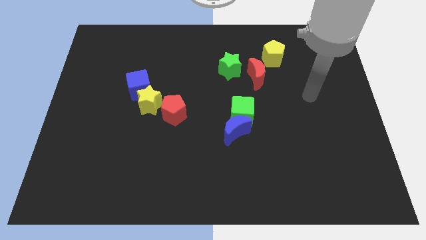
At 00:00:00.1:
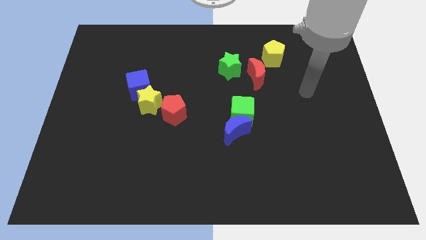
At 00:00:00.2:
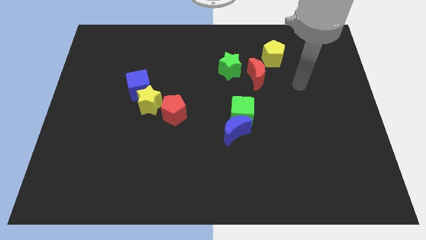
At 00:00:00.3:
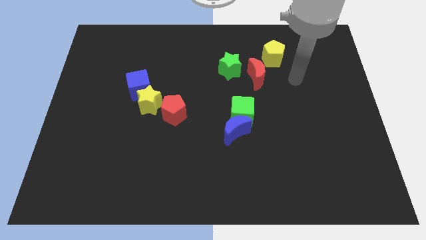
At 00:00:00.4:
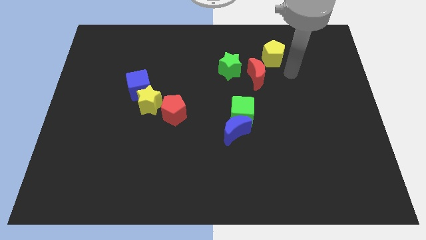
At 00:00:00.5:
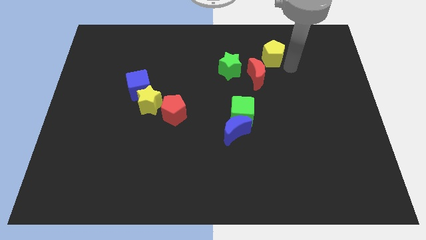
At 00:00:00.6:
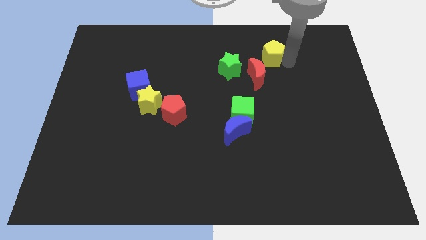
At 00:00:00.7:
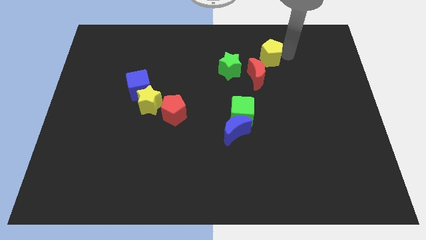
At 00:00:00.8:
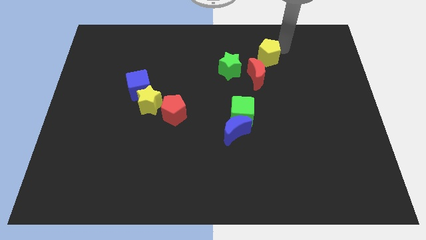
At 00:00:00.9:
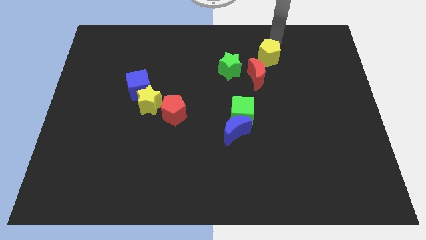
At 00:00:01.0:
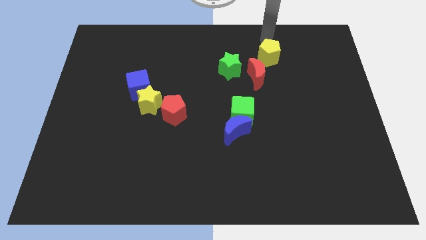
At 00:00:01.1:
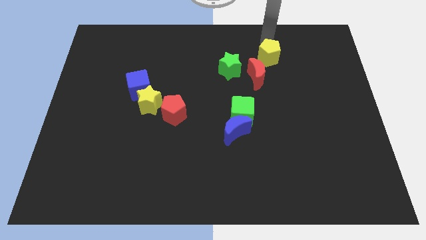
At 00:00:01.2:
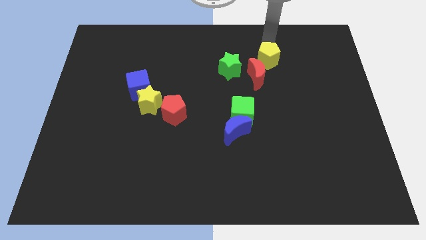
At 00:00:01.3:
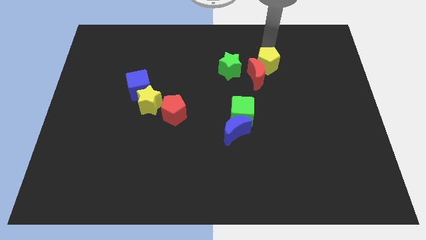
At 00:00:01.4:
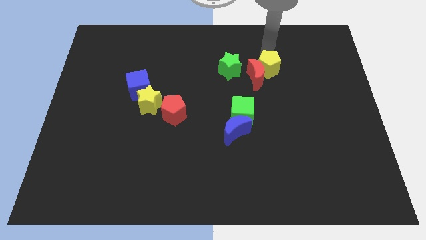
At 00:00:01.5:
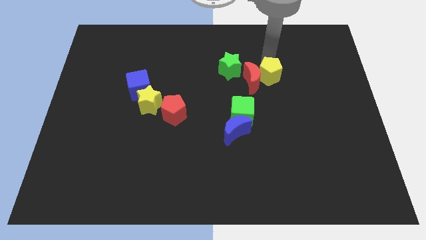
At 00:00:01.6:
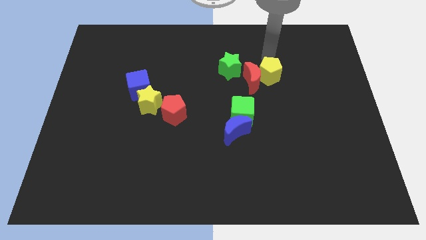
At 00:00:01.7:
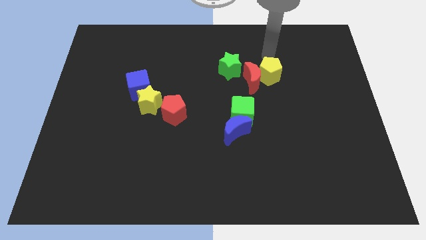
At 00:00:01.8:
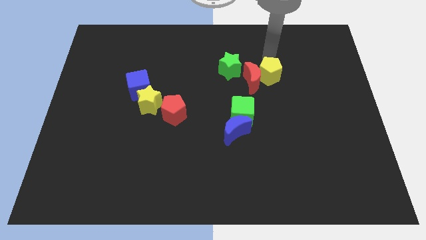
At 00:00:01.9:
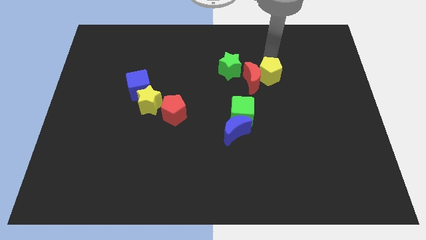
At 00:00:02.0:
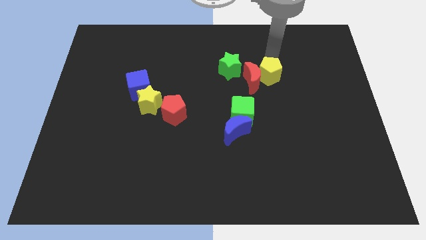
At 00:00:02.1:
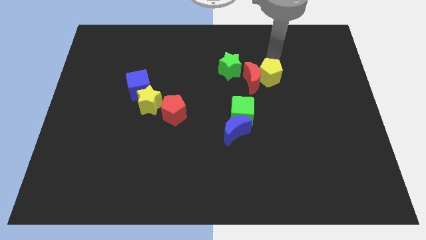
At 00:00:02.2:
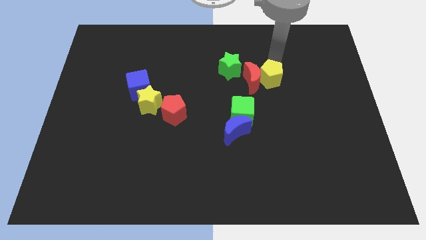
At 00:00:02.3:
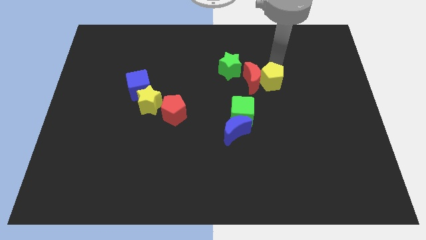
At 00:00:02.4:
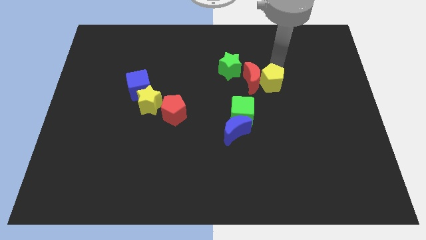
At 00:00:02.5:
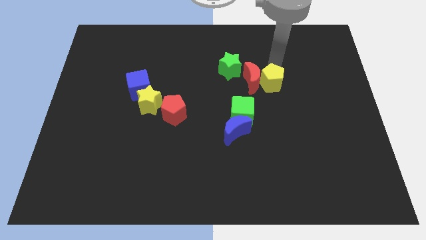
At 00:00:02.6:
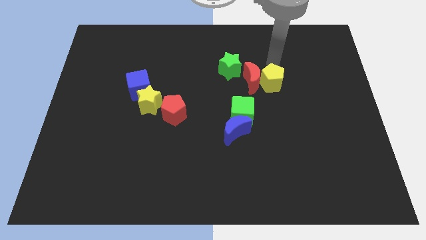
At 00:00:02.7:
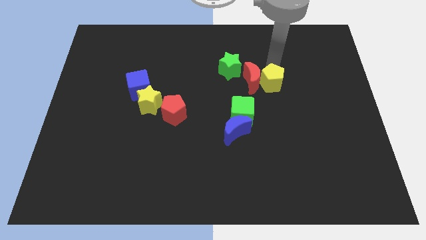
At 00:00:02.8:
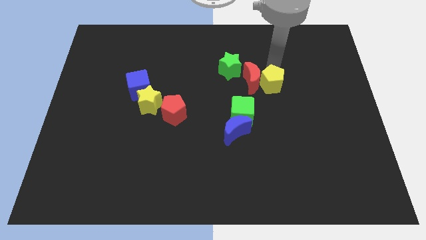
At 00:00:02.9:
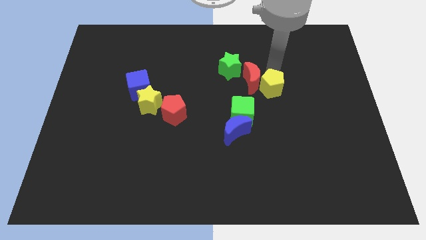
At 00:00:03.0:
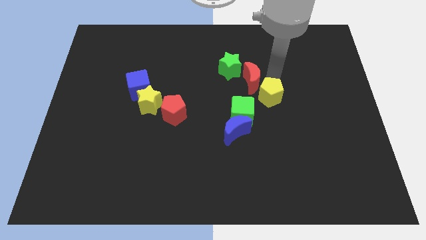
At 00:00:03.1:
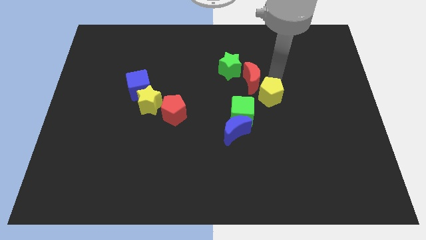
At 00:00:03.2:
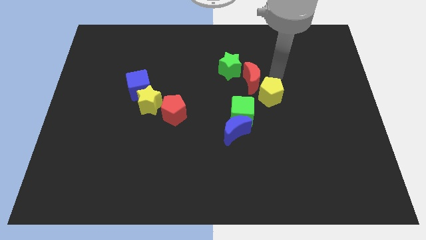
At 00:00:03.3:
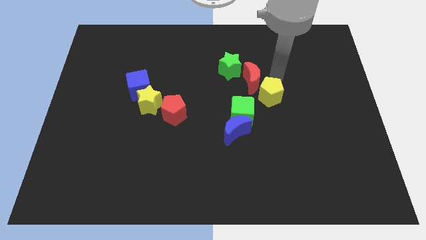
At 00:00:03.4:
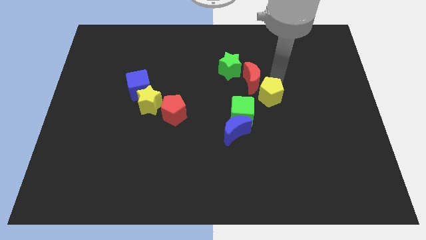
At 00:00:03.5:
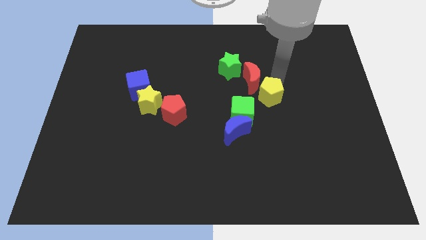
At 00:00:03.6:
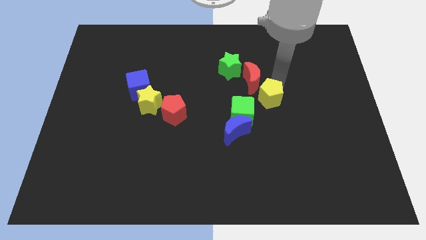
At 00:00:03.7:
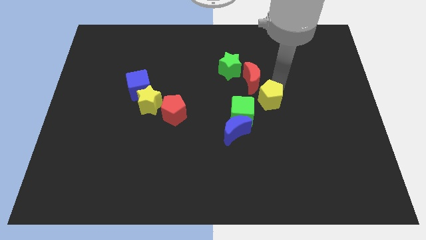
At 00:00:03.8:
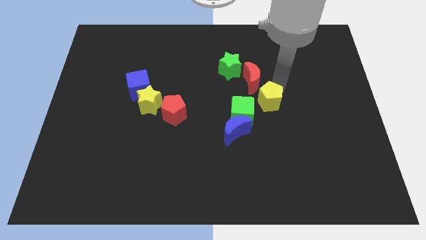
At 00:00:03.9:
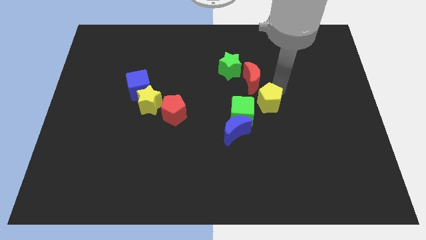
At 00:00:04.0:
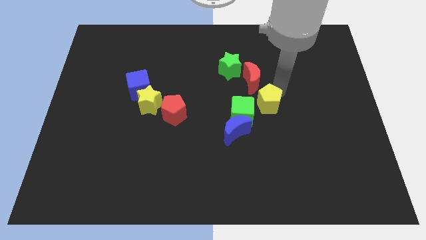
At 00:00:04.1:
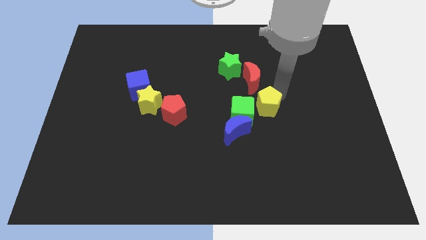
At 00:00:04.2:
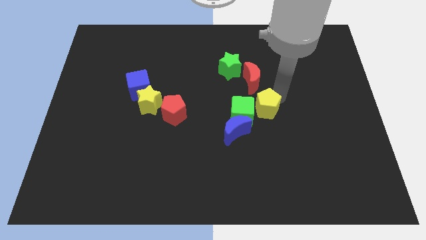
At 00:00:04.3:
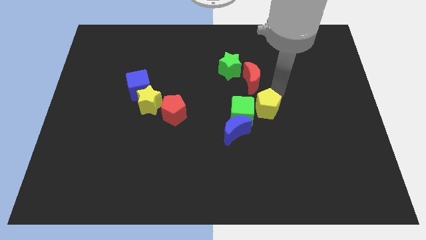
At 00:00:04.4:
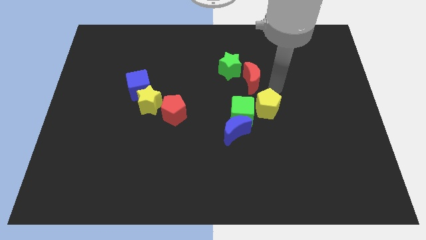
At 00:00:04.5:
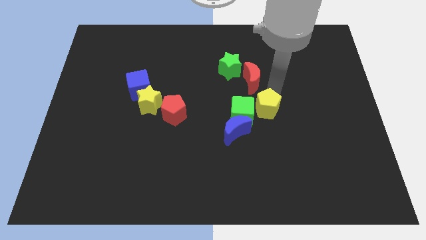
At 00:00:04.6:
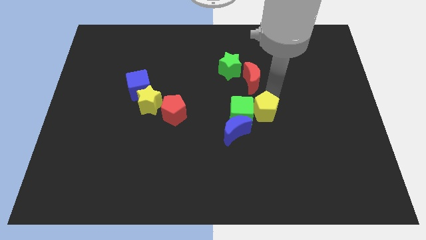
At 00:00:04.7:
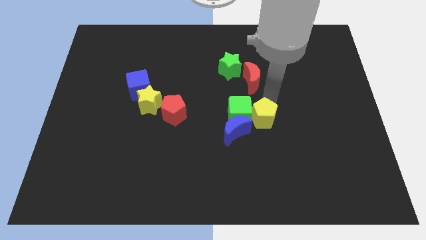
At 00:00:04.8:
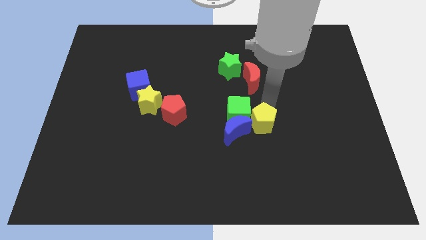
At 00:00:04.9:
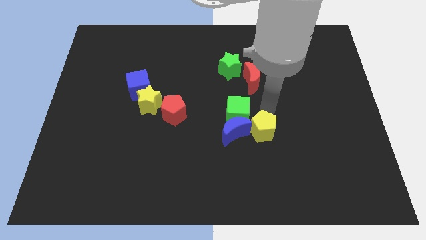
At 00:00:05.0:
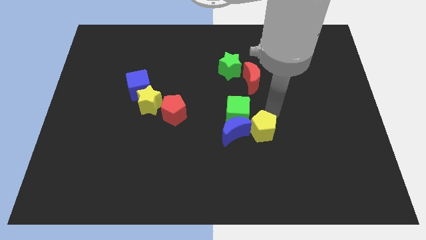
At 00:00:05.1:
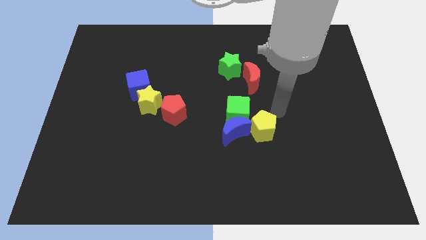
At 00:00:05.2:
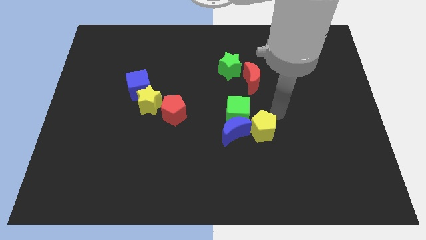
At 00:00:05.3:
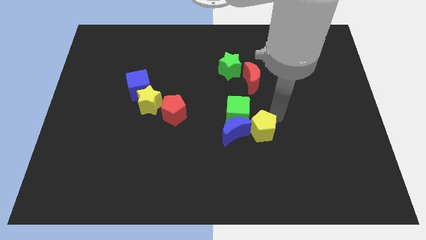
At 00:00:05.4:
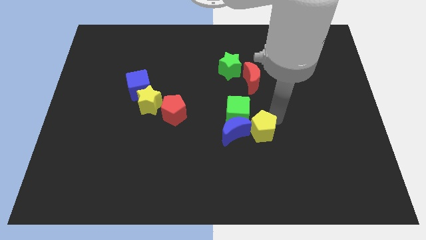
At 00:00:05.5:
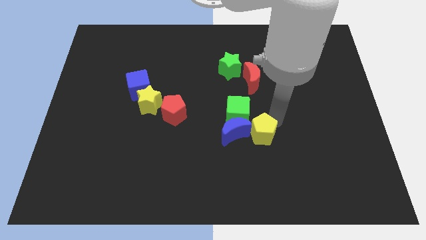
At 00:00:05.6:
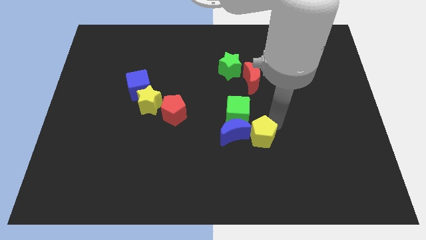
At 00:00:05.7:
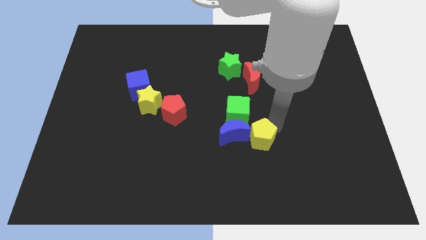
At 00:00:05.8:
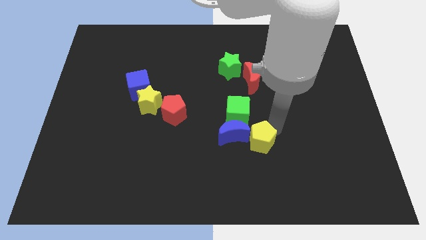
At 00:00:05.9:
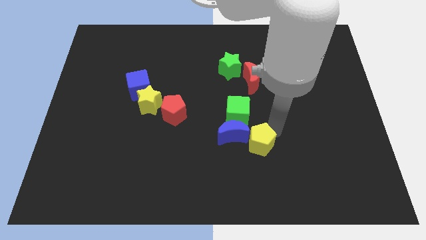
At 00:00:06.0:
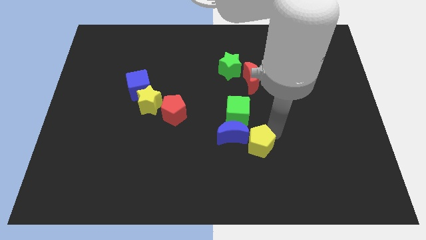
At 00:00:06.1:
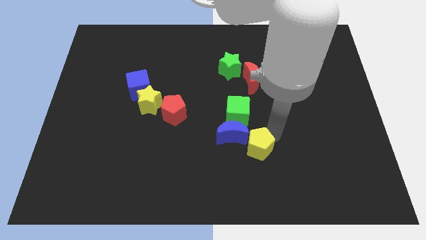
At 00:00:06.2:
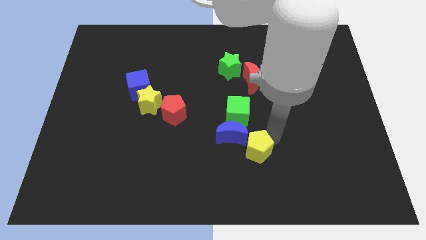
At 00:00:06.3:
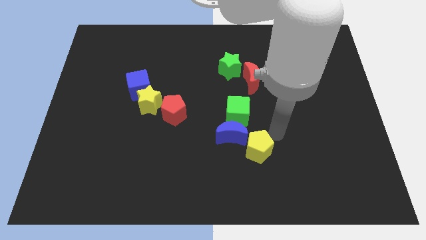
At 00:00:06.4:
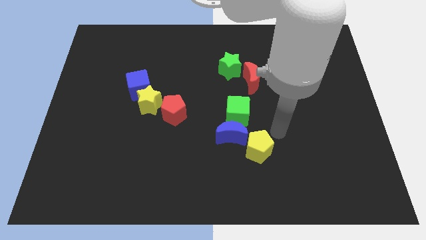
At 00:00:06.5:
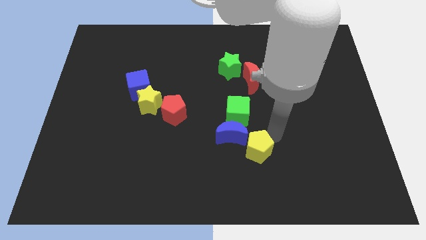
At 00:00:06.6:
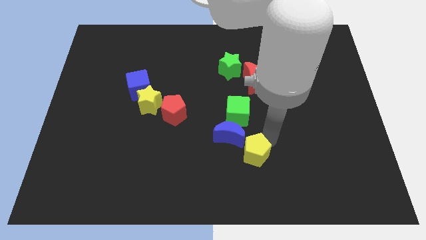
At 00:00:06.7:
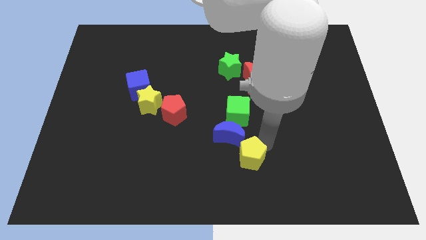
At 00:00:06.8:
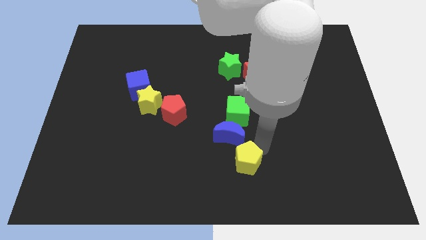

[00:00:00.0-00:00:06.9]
move the yellow pentagon to the bottom side

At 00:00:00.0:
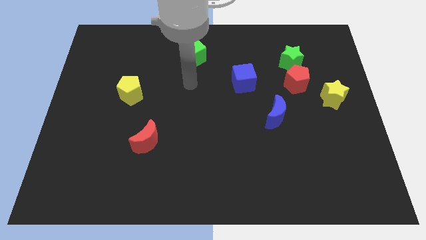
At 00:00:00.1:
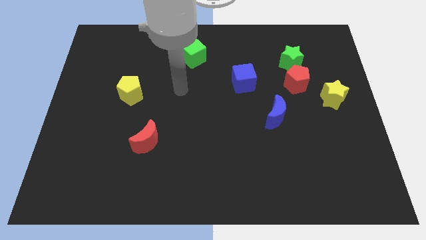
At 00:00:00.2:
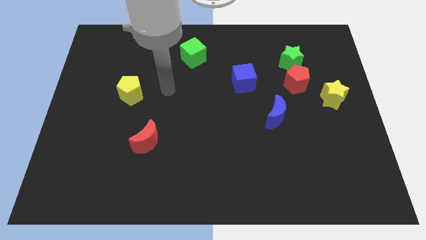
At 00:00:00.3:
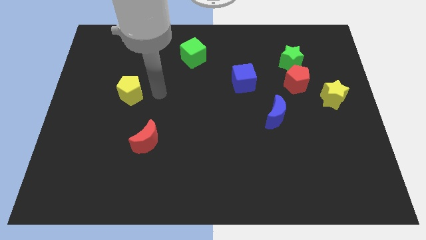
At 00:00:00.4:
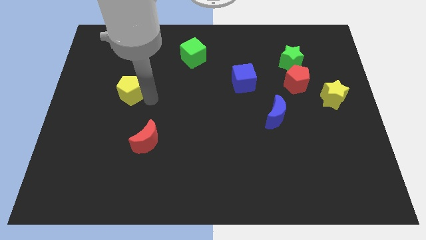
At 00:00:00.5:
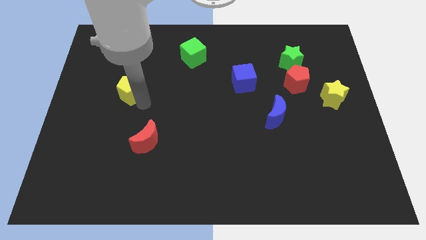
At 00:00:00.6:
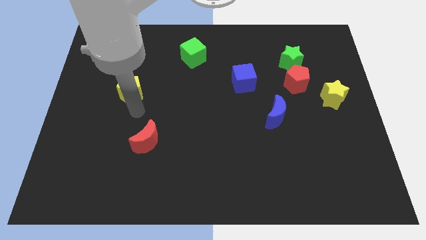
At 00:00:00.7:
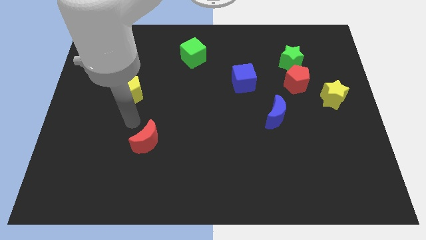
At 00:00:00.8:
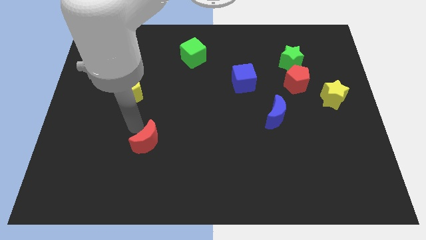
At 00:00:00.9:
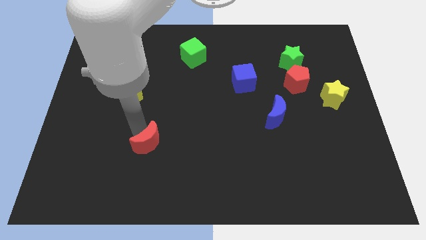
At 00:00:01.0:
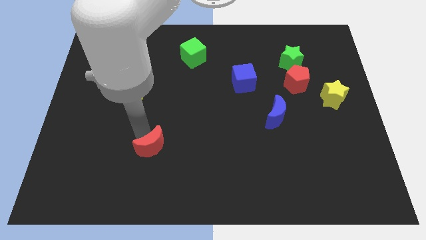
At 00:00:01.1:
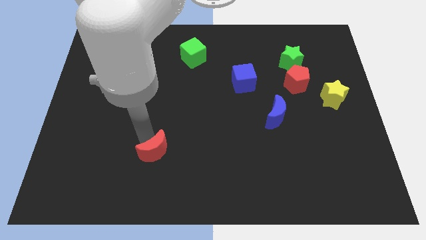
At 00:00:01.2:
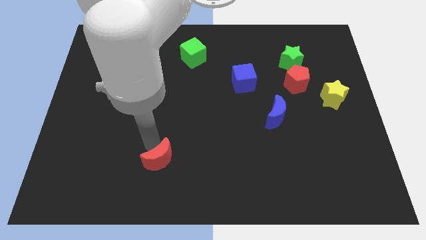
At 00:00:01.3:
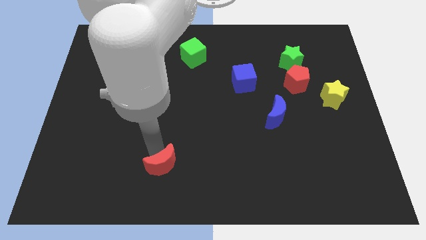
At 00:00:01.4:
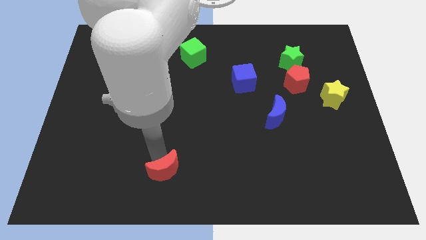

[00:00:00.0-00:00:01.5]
move the red moon to the bottom side
